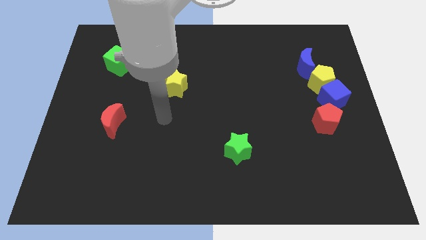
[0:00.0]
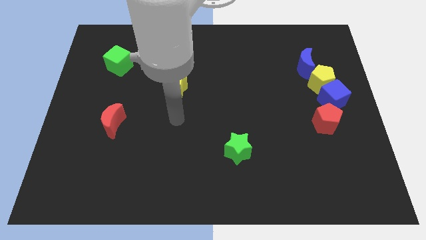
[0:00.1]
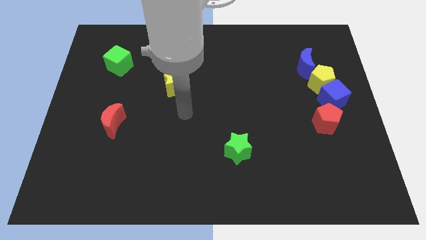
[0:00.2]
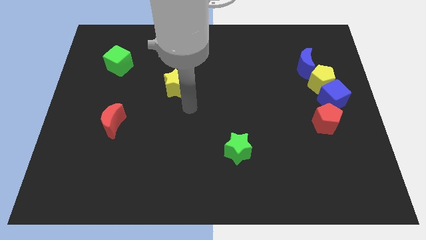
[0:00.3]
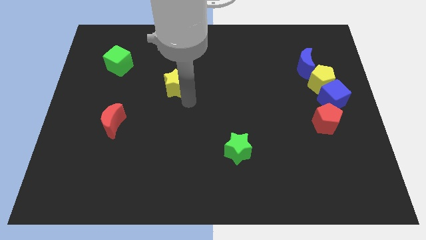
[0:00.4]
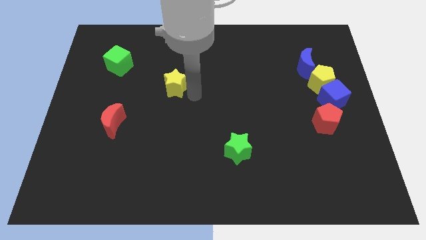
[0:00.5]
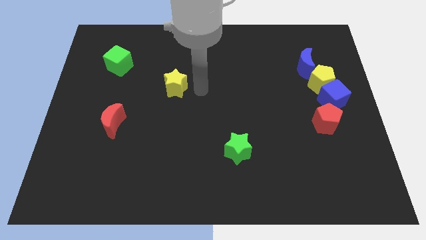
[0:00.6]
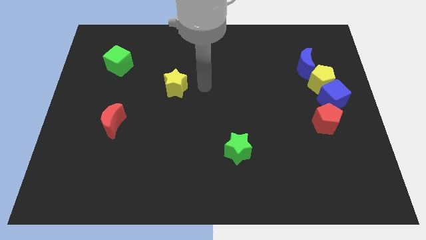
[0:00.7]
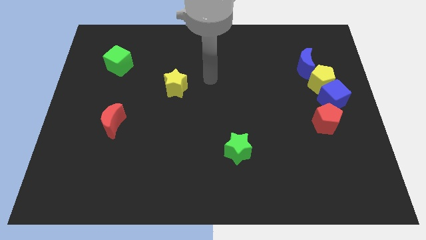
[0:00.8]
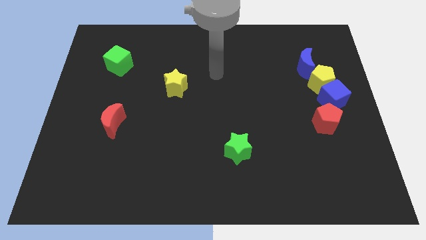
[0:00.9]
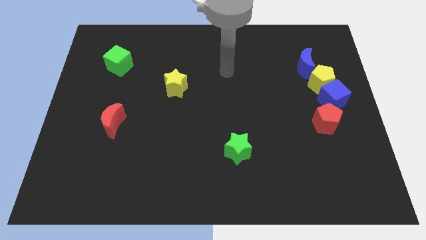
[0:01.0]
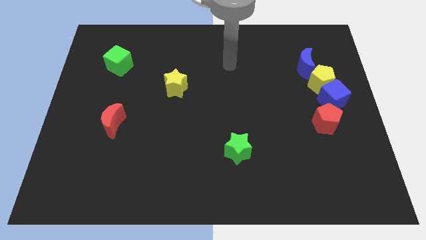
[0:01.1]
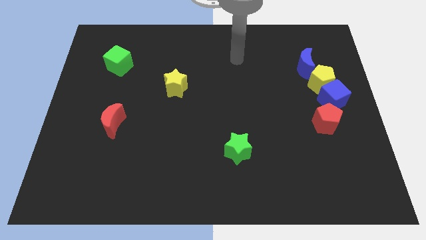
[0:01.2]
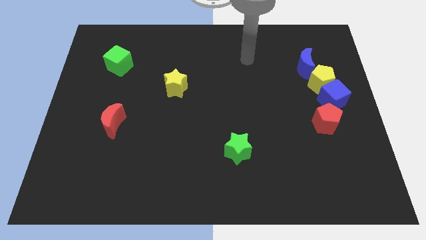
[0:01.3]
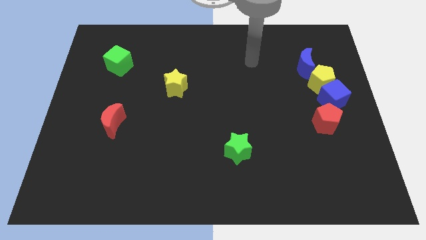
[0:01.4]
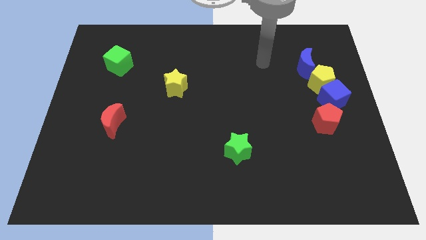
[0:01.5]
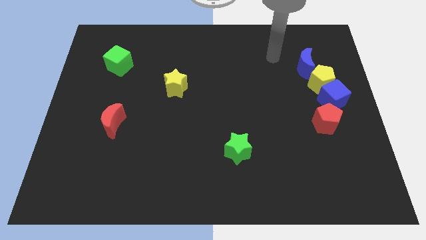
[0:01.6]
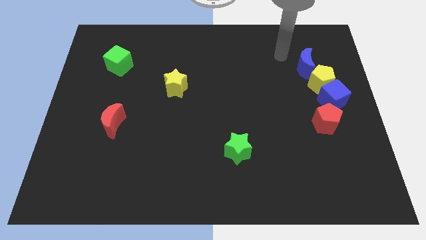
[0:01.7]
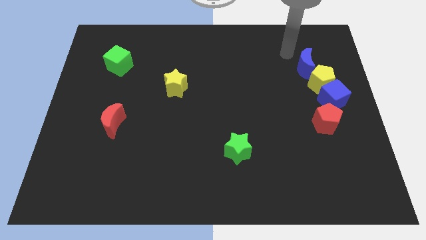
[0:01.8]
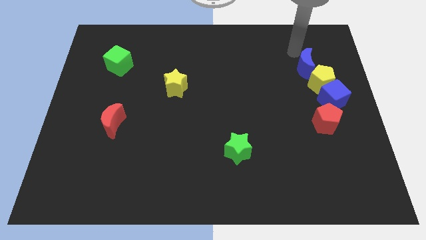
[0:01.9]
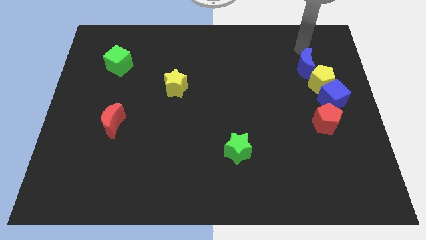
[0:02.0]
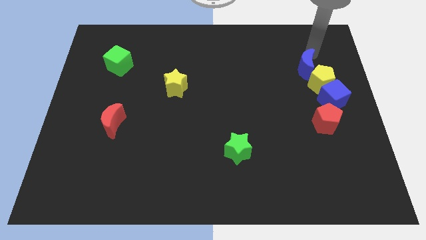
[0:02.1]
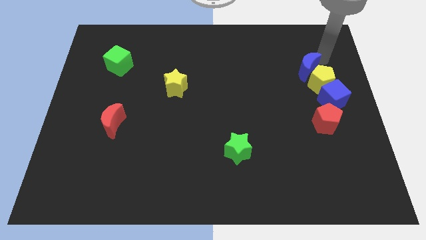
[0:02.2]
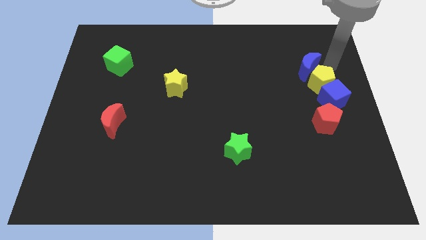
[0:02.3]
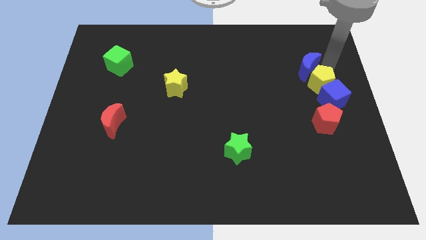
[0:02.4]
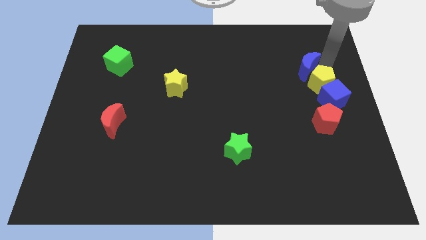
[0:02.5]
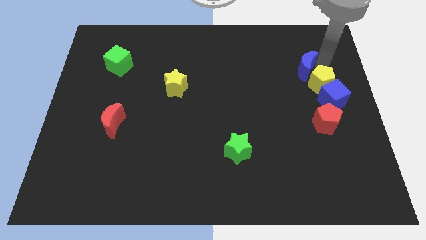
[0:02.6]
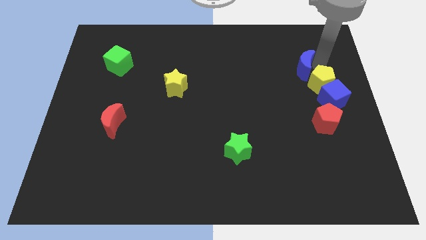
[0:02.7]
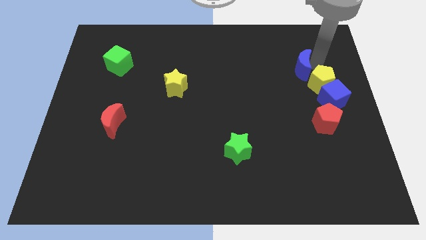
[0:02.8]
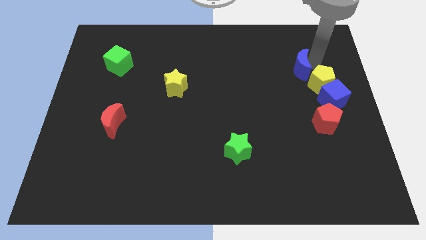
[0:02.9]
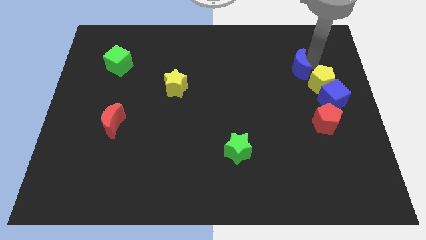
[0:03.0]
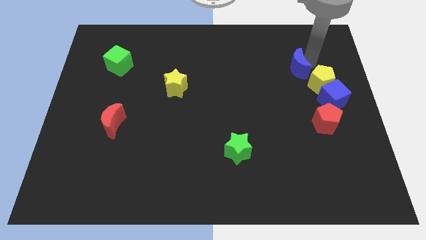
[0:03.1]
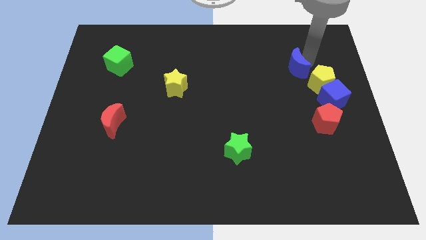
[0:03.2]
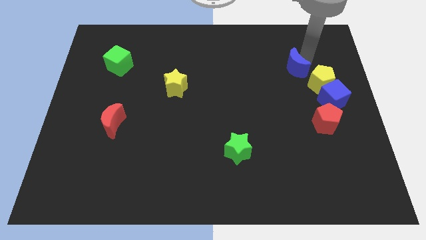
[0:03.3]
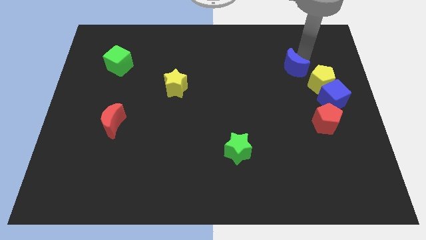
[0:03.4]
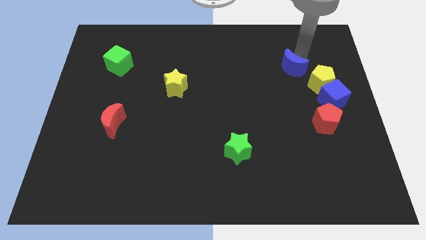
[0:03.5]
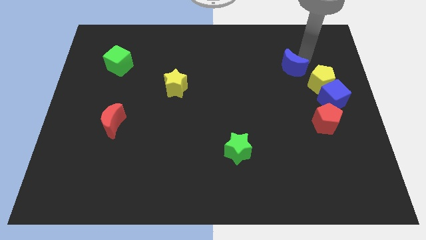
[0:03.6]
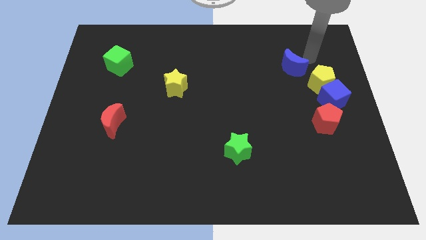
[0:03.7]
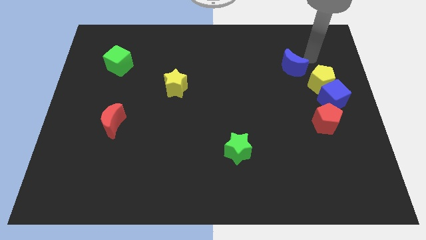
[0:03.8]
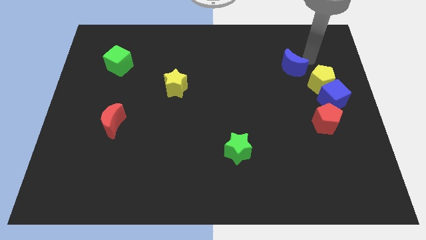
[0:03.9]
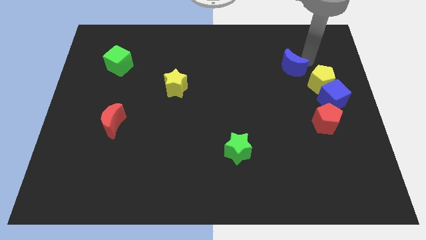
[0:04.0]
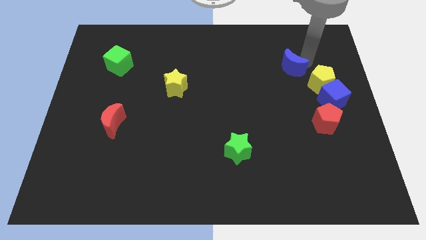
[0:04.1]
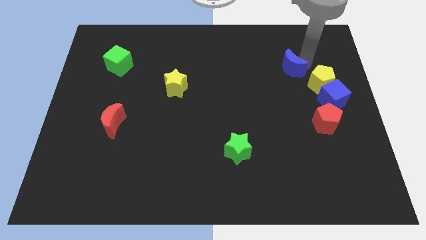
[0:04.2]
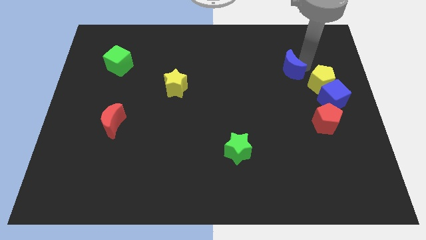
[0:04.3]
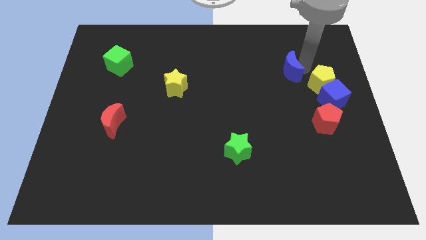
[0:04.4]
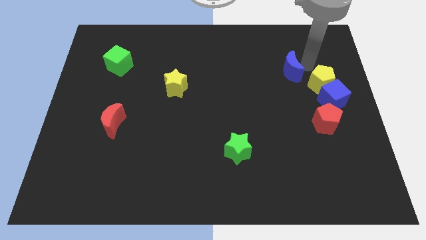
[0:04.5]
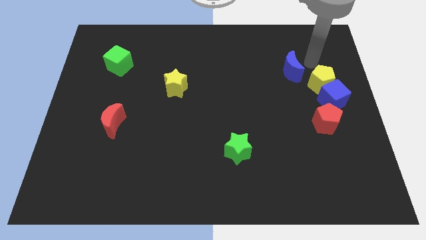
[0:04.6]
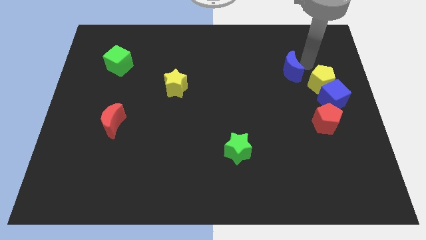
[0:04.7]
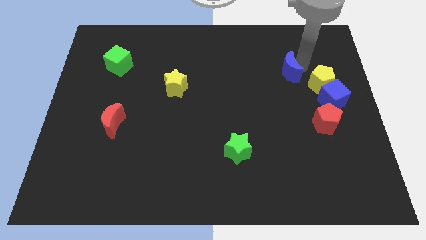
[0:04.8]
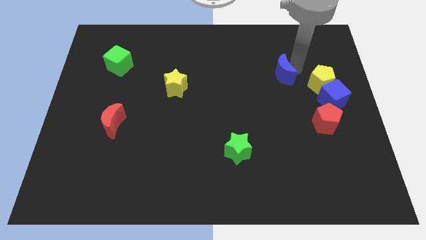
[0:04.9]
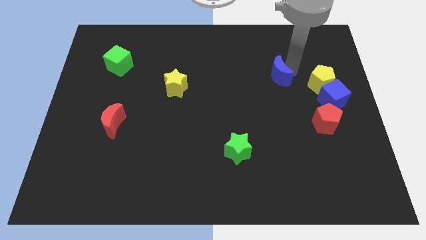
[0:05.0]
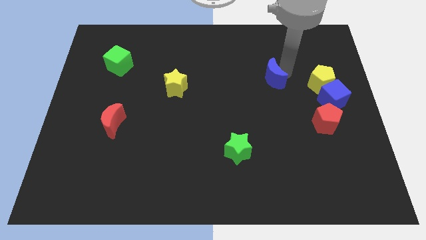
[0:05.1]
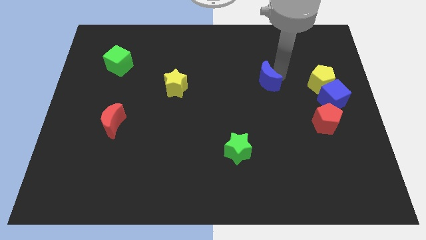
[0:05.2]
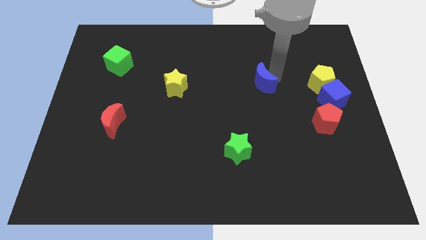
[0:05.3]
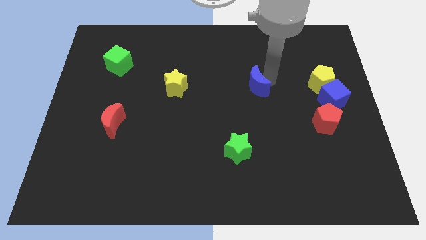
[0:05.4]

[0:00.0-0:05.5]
push the blue moon to the middle of the board

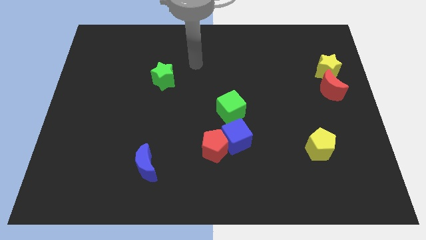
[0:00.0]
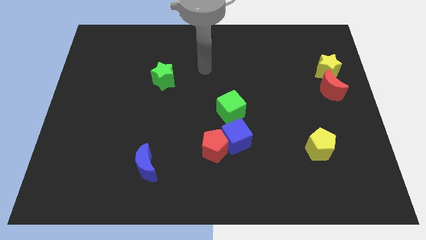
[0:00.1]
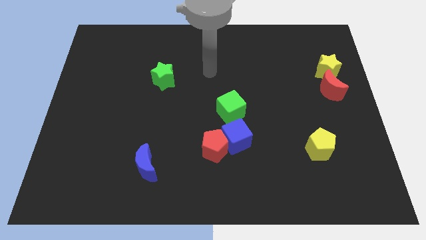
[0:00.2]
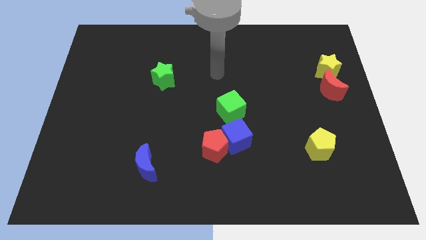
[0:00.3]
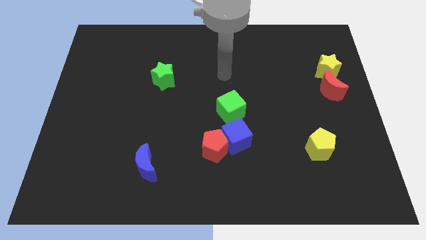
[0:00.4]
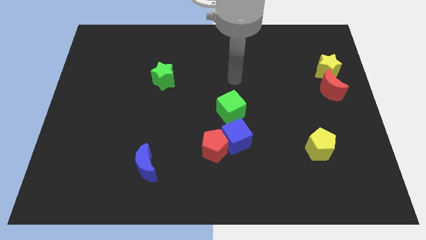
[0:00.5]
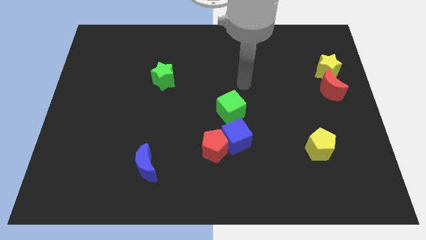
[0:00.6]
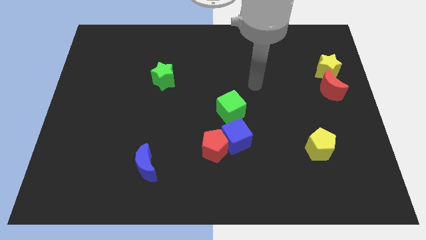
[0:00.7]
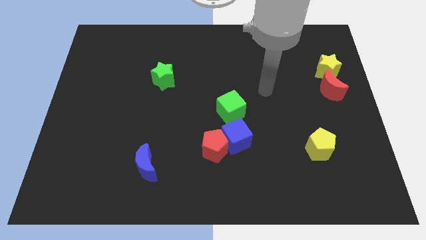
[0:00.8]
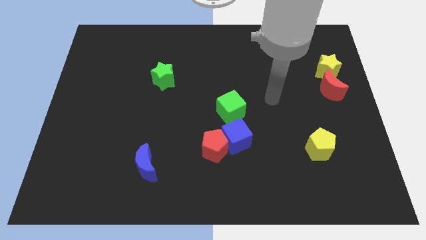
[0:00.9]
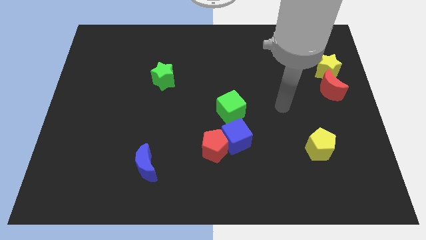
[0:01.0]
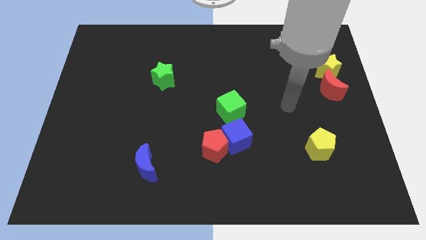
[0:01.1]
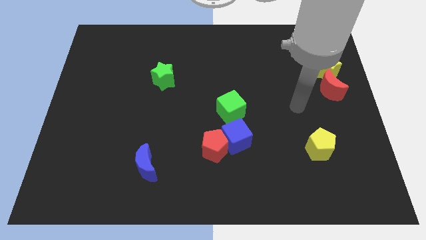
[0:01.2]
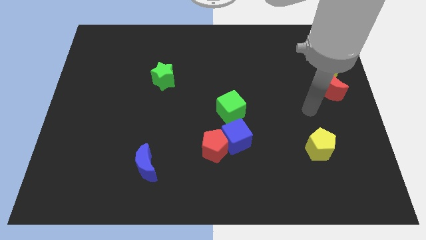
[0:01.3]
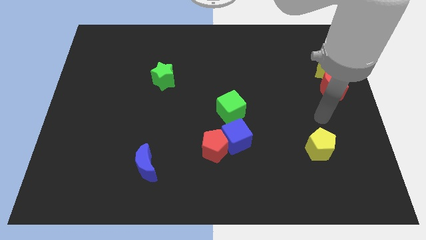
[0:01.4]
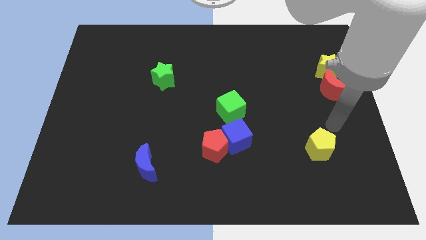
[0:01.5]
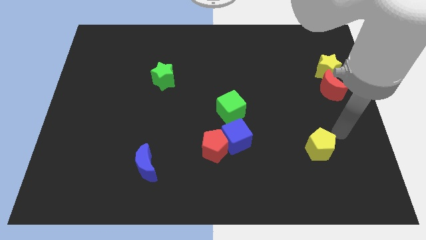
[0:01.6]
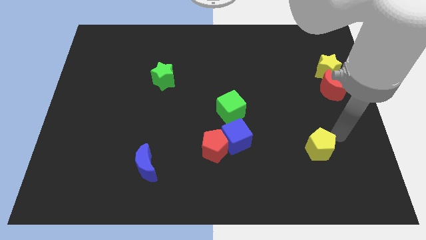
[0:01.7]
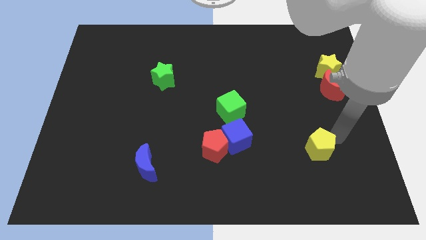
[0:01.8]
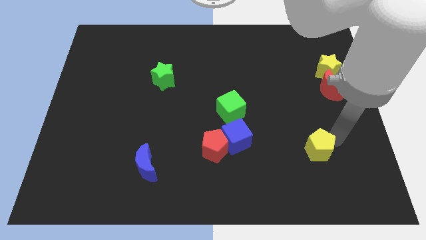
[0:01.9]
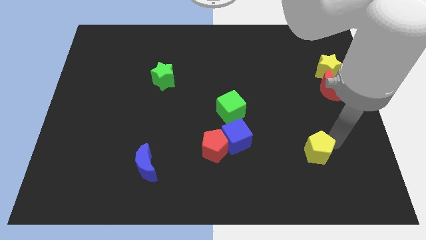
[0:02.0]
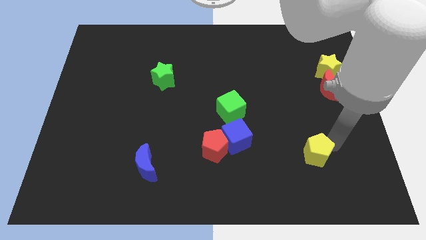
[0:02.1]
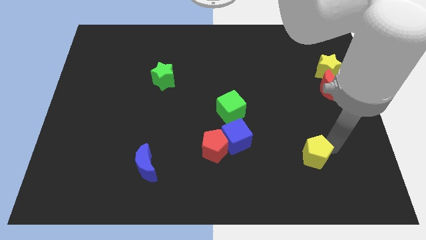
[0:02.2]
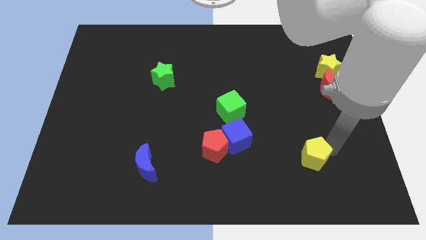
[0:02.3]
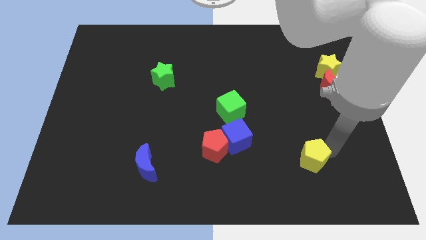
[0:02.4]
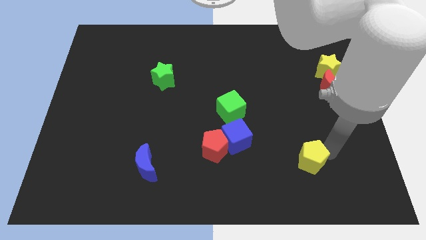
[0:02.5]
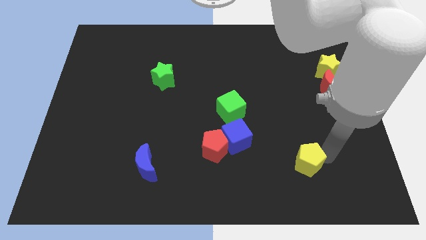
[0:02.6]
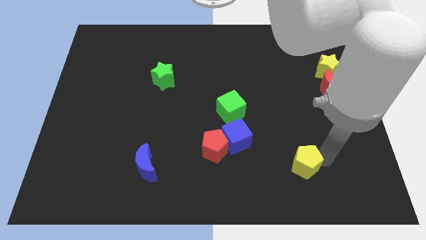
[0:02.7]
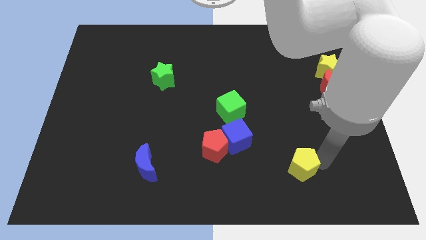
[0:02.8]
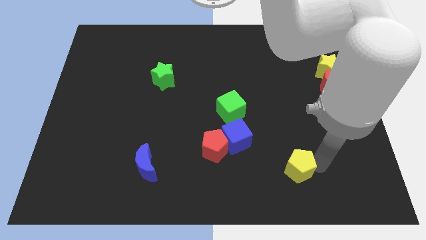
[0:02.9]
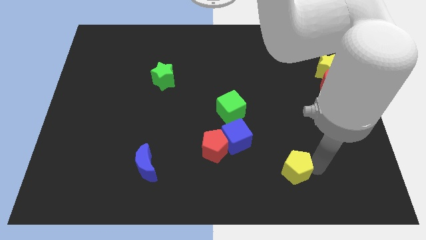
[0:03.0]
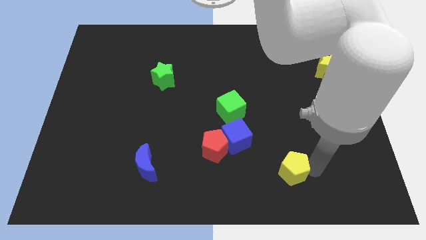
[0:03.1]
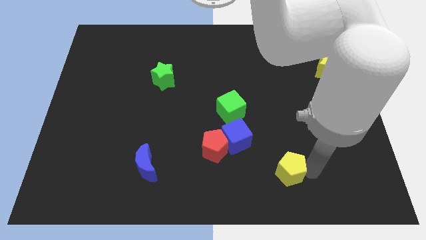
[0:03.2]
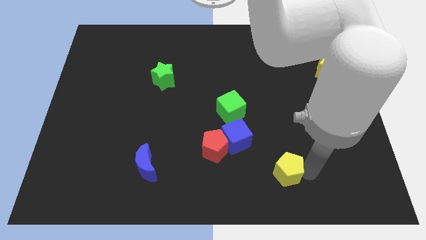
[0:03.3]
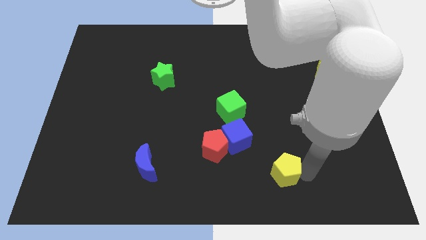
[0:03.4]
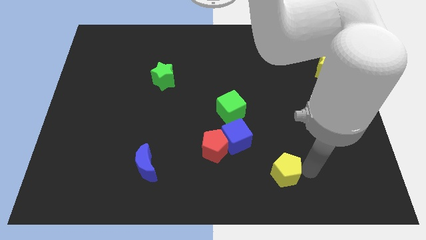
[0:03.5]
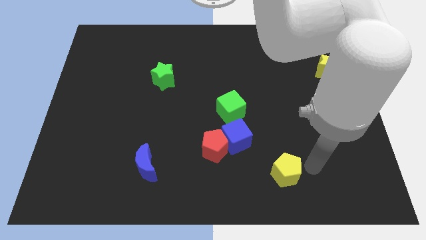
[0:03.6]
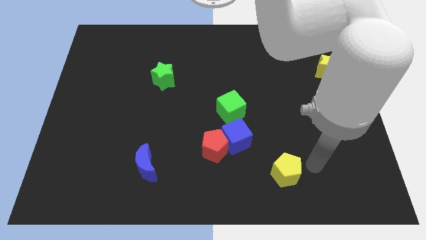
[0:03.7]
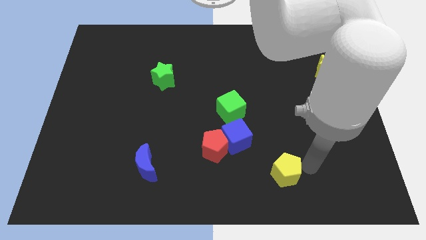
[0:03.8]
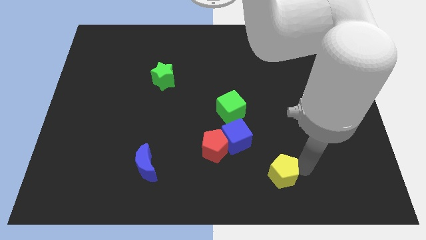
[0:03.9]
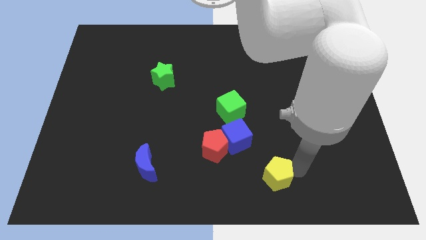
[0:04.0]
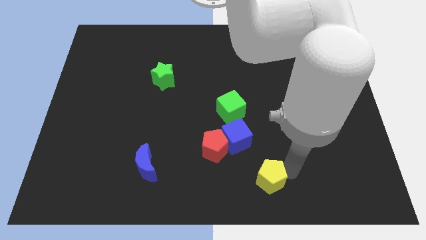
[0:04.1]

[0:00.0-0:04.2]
put the yellow pentagon to the bottom
